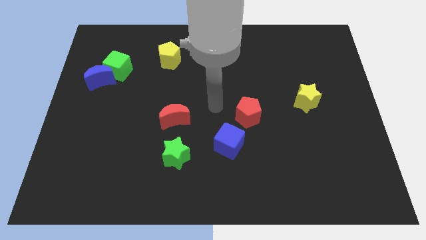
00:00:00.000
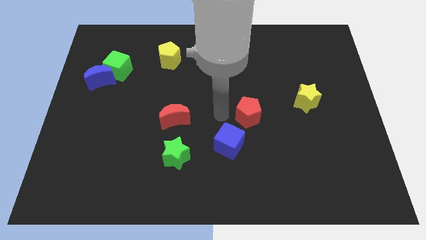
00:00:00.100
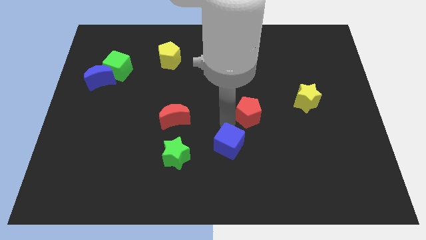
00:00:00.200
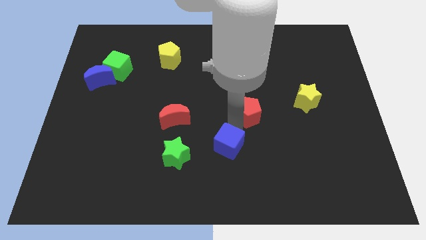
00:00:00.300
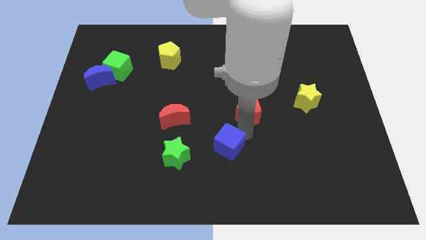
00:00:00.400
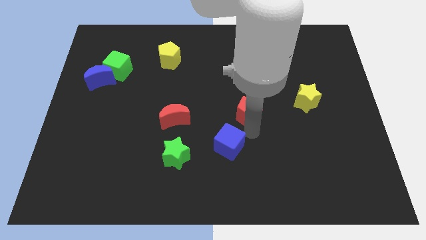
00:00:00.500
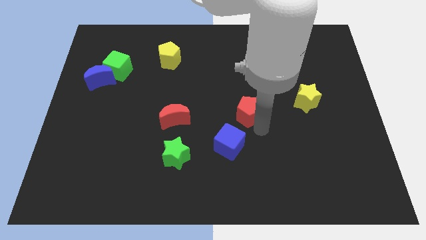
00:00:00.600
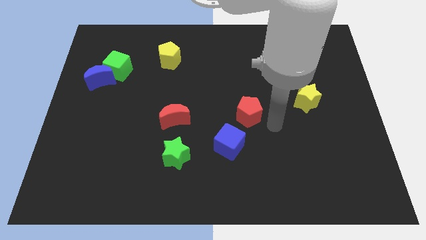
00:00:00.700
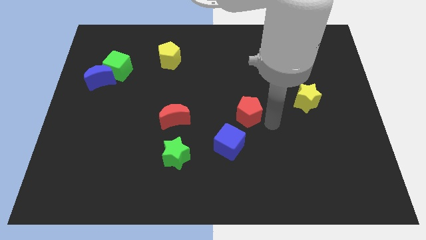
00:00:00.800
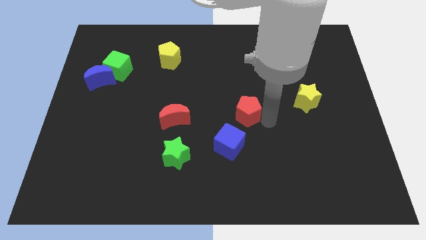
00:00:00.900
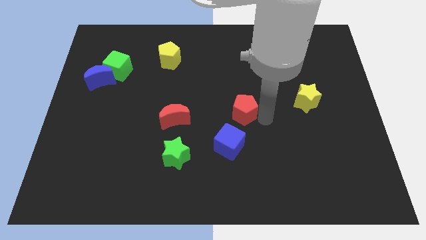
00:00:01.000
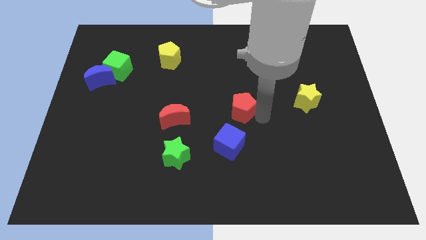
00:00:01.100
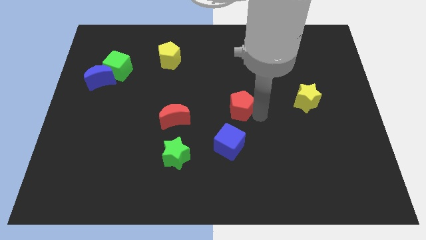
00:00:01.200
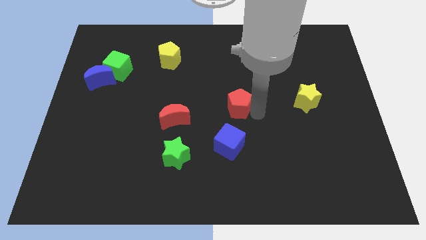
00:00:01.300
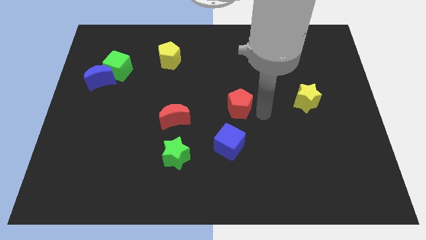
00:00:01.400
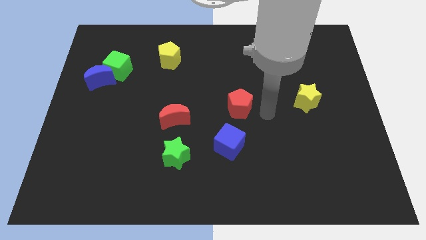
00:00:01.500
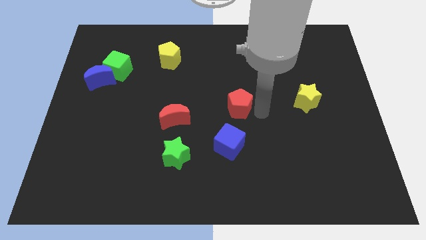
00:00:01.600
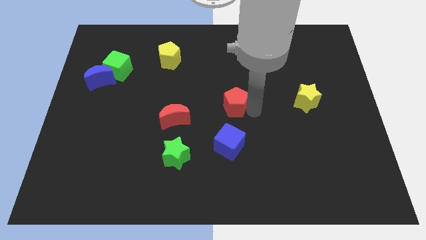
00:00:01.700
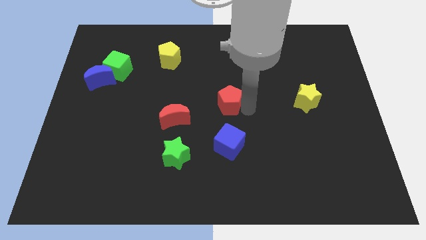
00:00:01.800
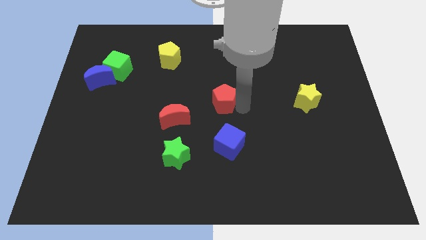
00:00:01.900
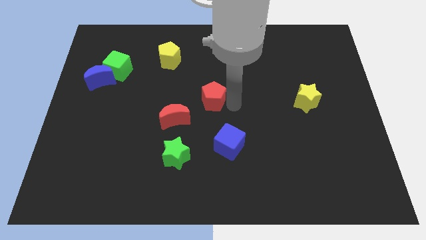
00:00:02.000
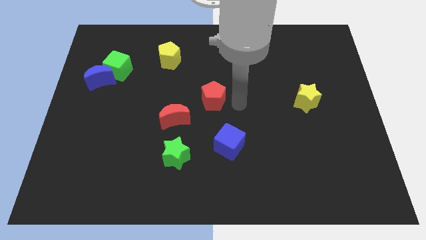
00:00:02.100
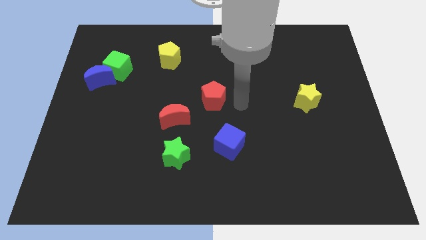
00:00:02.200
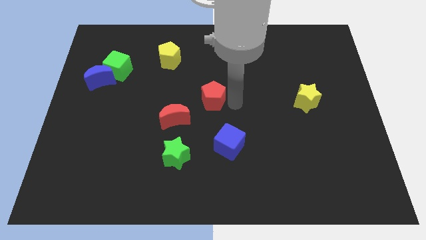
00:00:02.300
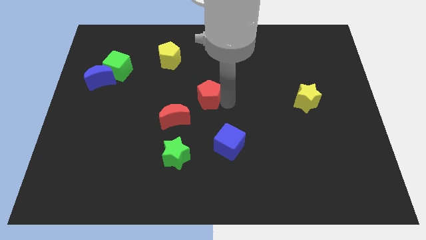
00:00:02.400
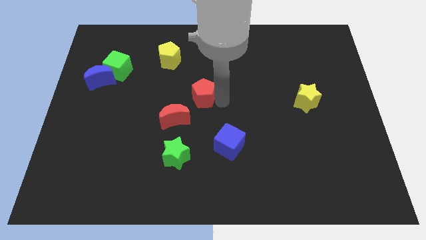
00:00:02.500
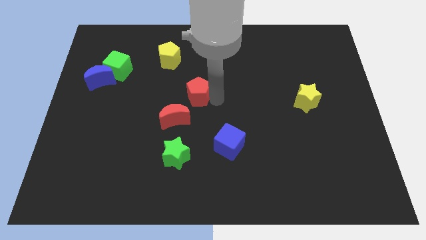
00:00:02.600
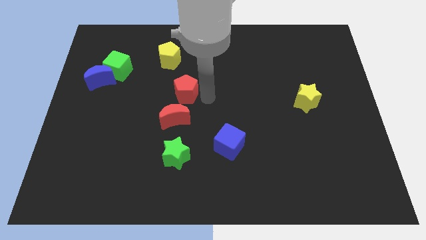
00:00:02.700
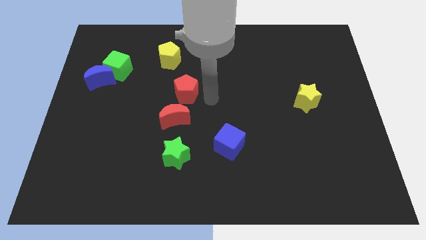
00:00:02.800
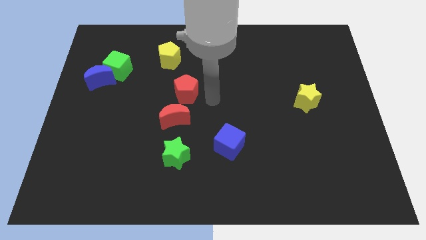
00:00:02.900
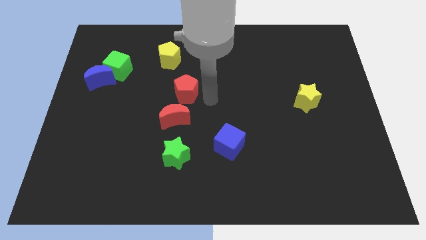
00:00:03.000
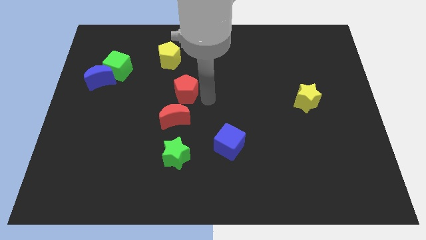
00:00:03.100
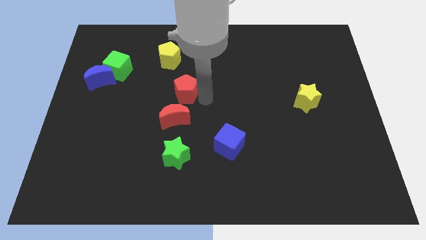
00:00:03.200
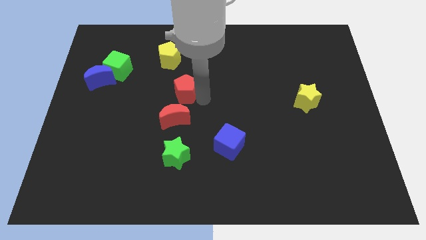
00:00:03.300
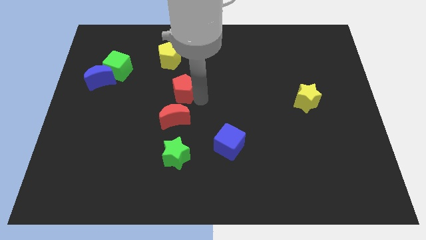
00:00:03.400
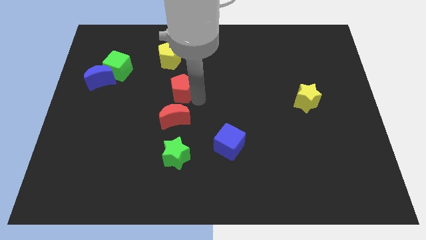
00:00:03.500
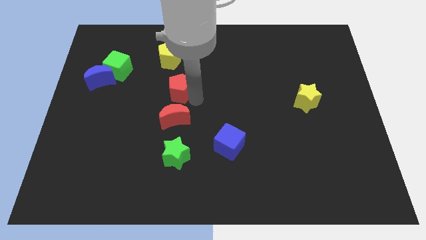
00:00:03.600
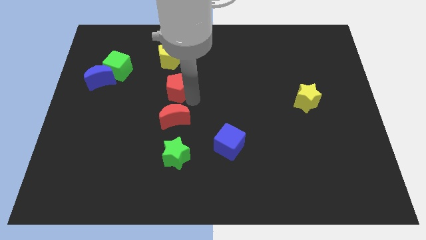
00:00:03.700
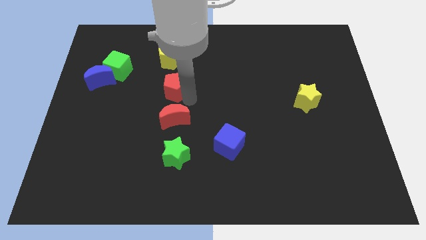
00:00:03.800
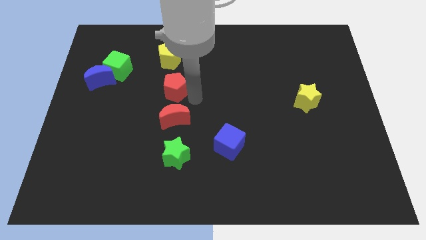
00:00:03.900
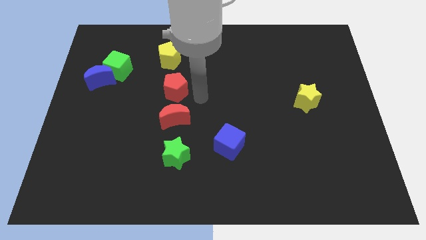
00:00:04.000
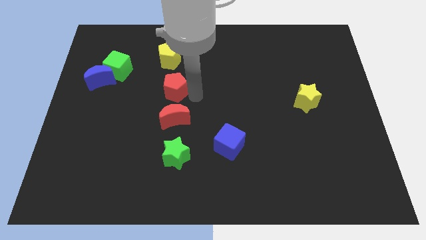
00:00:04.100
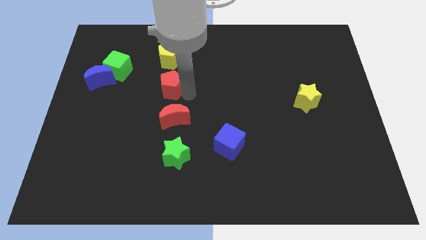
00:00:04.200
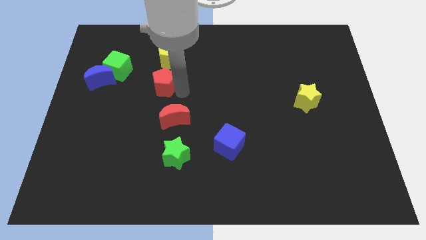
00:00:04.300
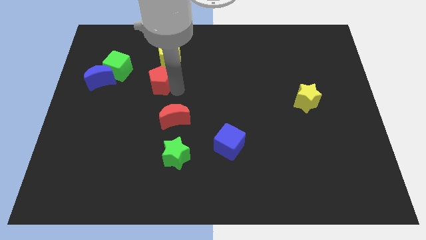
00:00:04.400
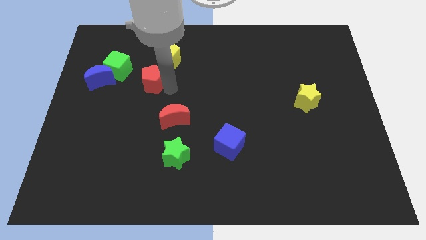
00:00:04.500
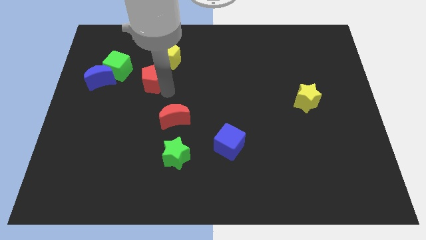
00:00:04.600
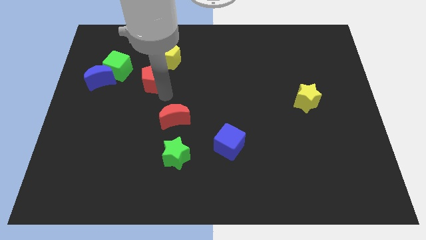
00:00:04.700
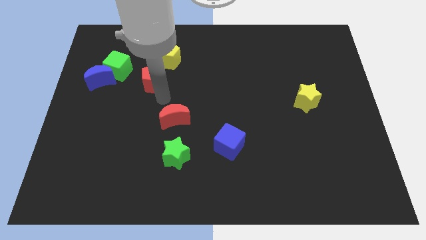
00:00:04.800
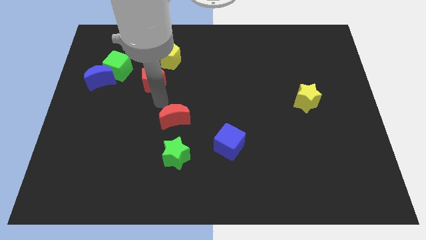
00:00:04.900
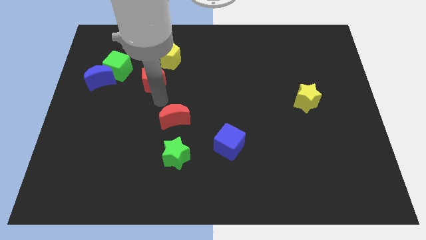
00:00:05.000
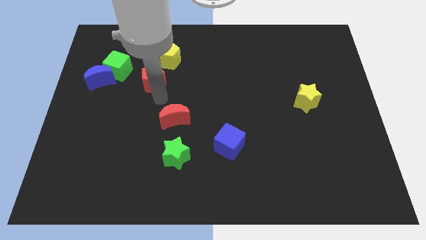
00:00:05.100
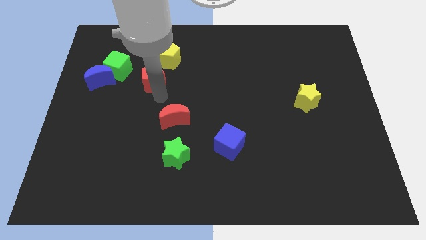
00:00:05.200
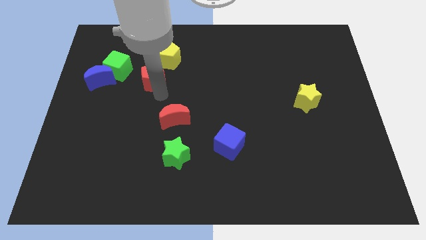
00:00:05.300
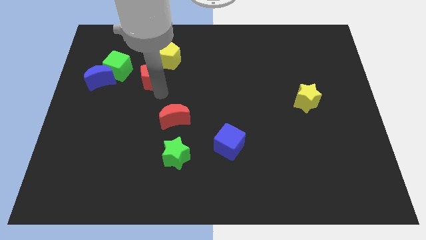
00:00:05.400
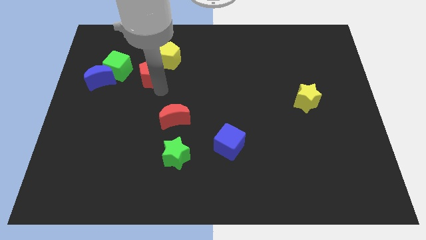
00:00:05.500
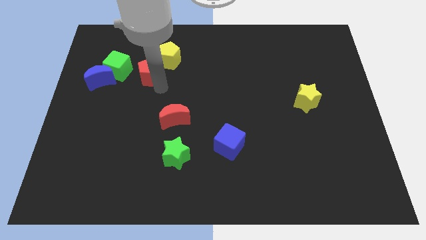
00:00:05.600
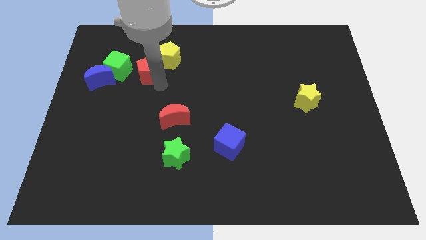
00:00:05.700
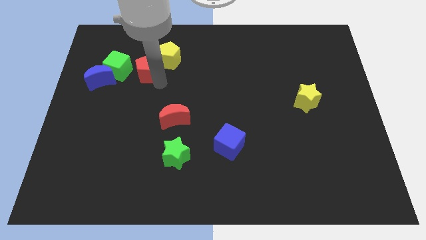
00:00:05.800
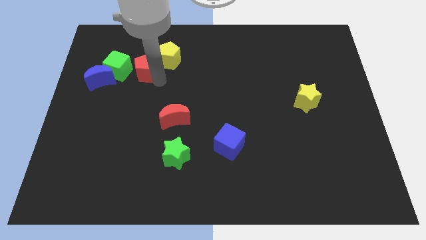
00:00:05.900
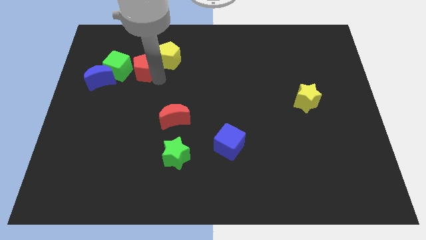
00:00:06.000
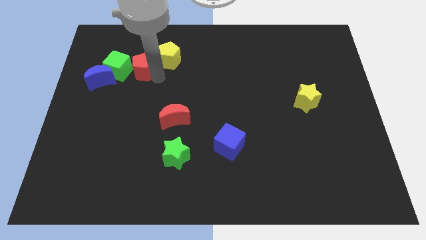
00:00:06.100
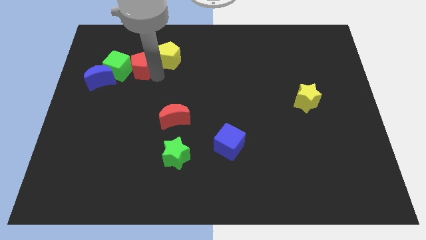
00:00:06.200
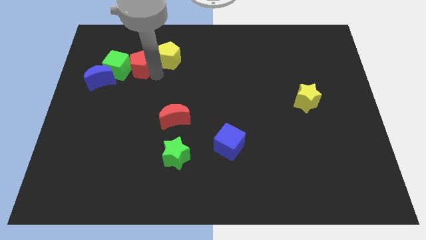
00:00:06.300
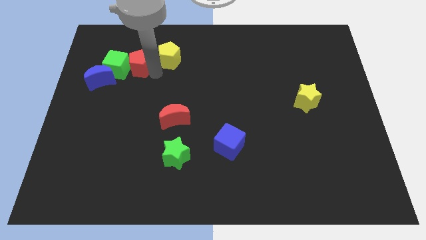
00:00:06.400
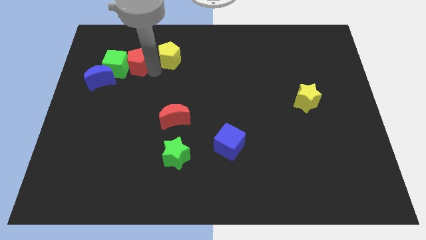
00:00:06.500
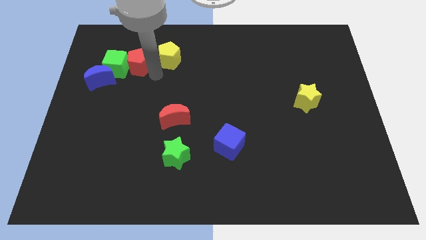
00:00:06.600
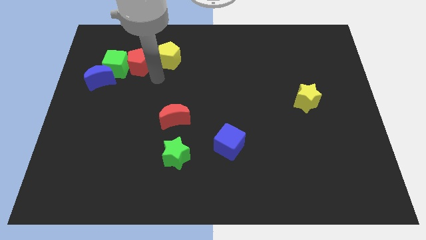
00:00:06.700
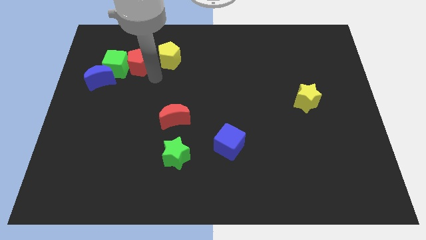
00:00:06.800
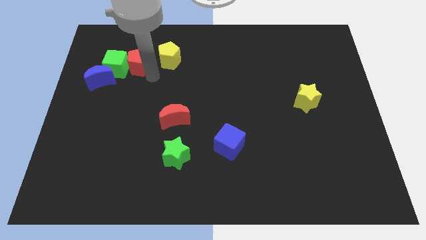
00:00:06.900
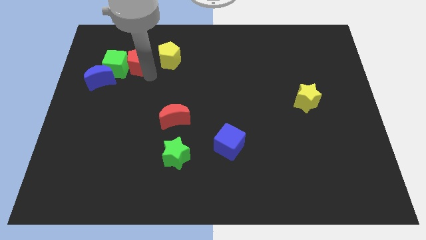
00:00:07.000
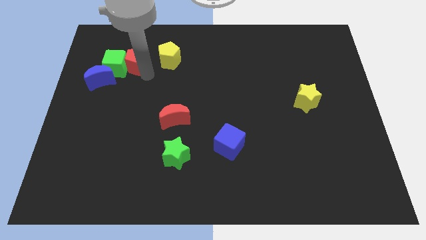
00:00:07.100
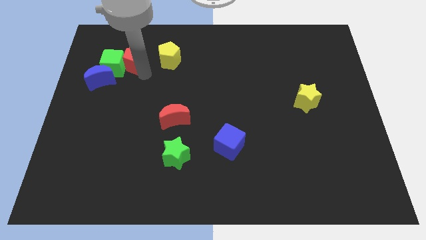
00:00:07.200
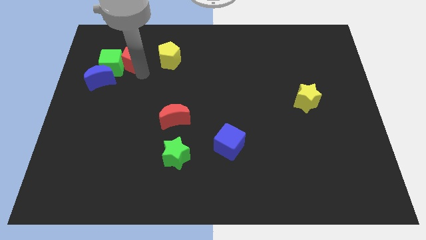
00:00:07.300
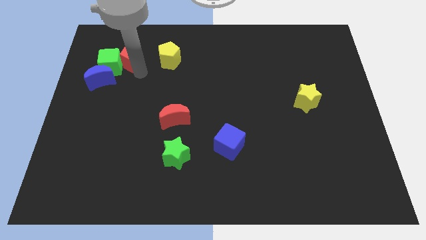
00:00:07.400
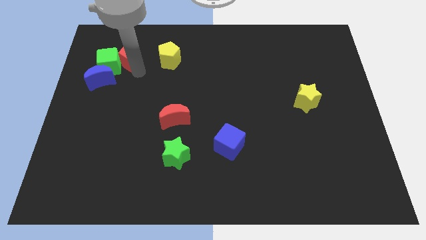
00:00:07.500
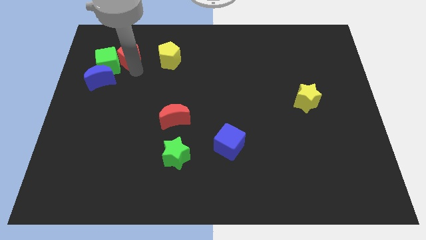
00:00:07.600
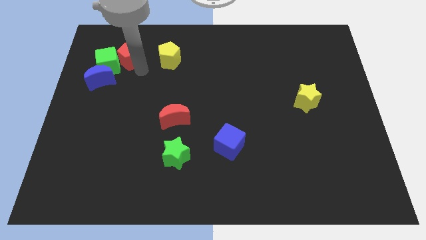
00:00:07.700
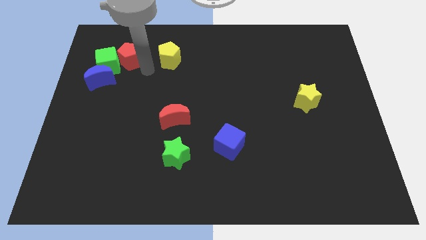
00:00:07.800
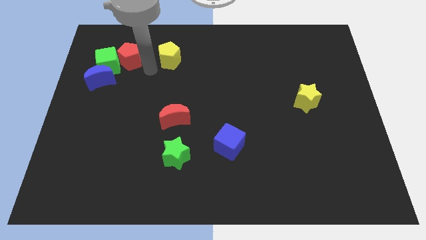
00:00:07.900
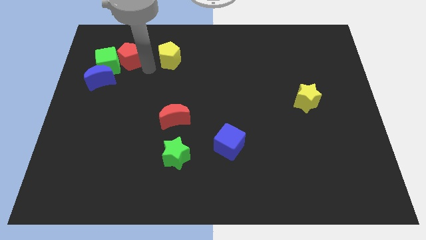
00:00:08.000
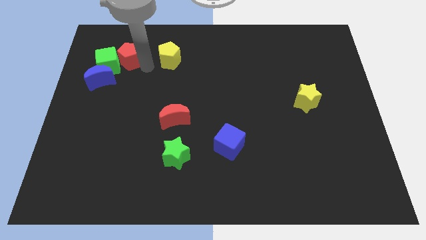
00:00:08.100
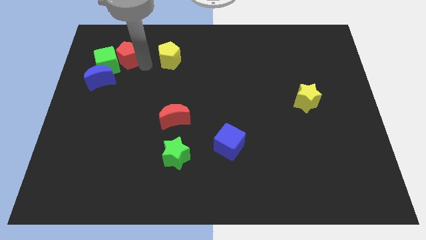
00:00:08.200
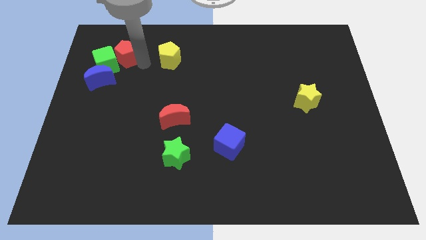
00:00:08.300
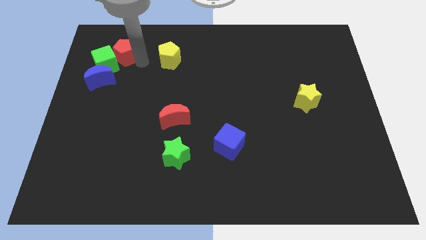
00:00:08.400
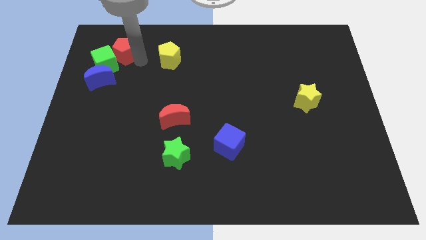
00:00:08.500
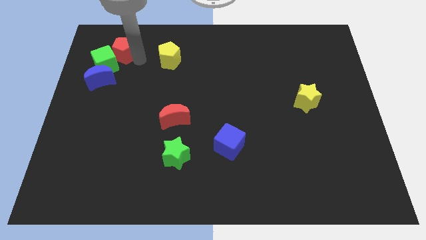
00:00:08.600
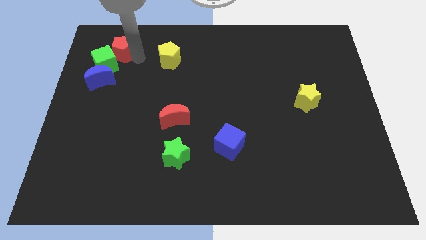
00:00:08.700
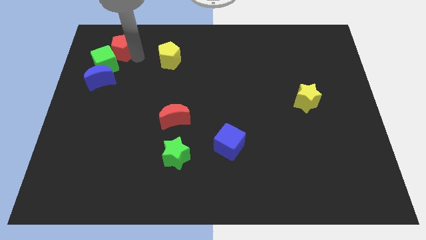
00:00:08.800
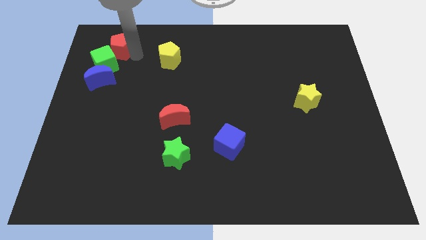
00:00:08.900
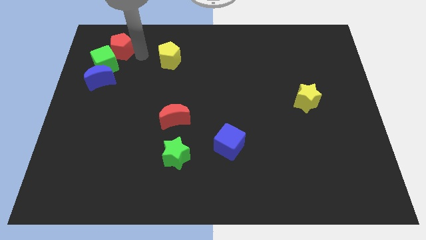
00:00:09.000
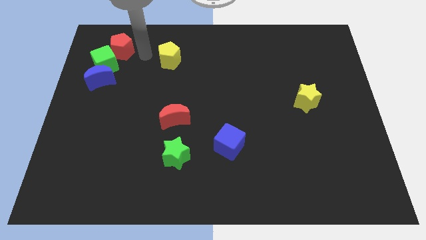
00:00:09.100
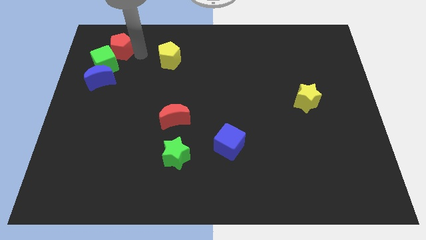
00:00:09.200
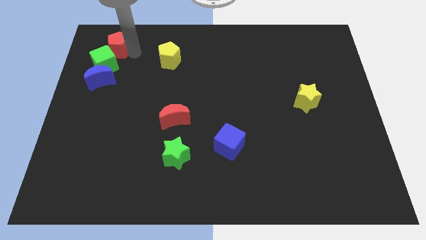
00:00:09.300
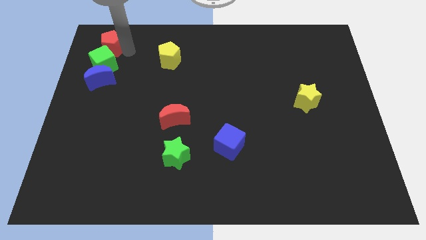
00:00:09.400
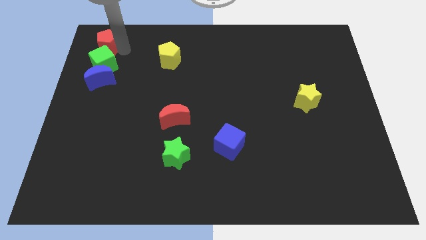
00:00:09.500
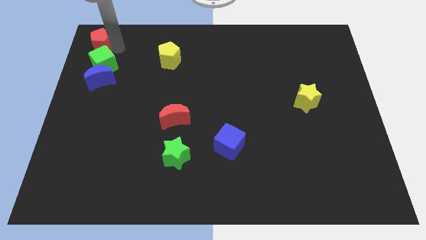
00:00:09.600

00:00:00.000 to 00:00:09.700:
move the red pentagon to the top left corner
